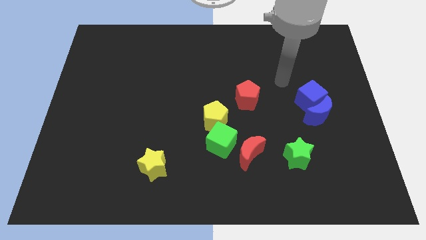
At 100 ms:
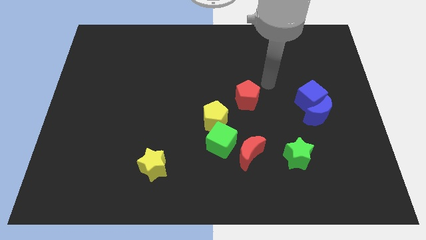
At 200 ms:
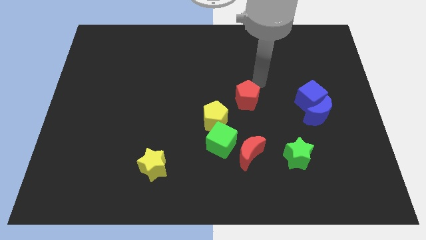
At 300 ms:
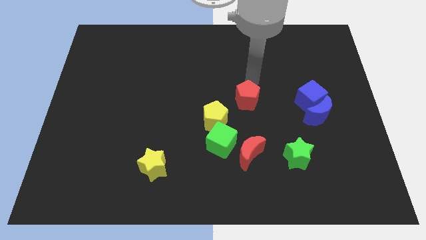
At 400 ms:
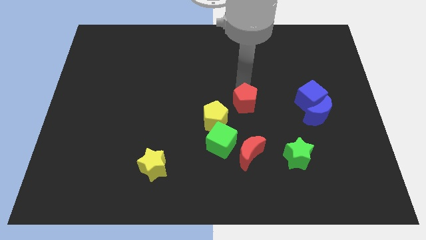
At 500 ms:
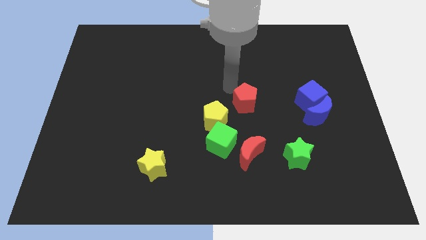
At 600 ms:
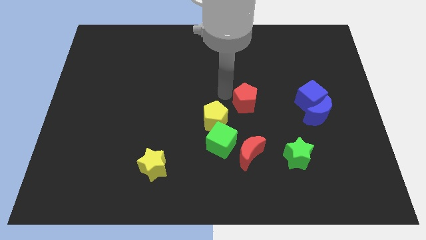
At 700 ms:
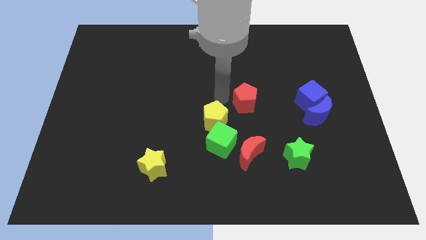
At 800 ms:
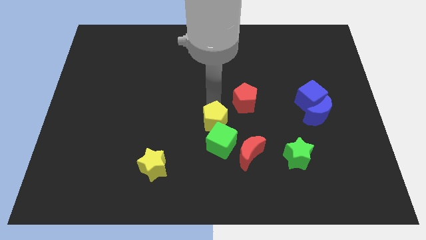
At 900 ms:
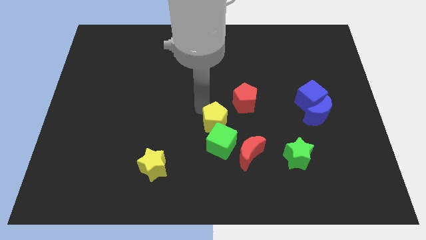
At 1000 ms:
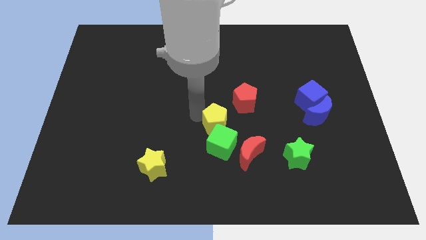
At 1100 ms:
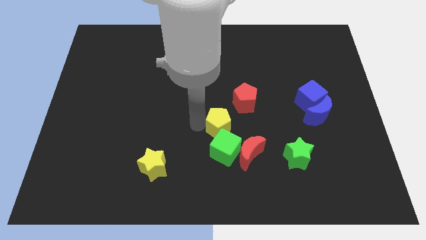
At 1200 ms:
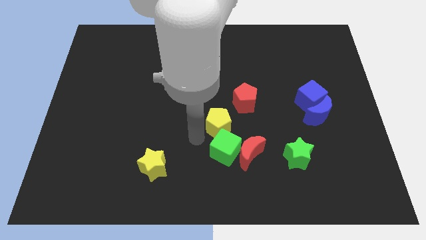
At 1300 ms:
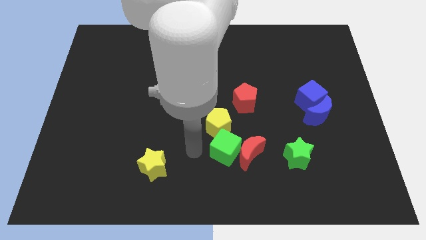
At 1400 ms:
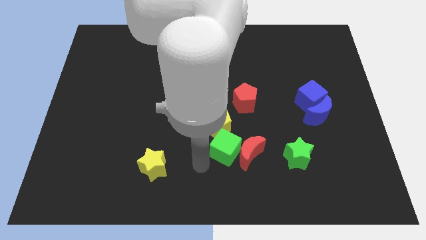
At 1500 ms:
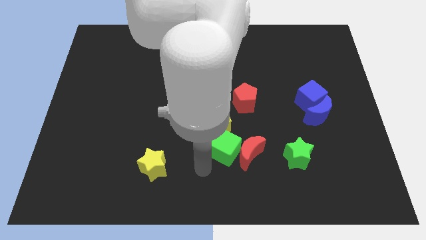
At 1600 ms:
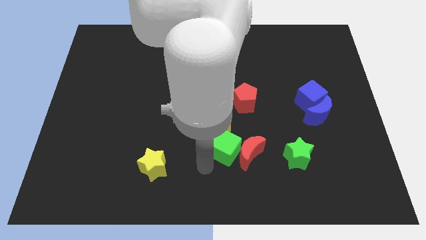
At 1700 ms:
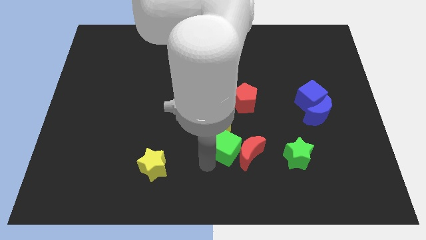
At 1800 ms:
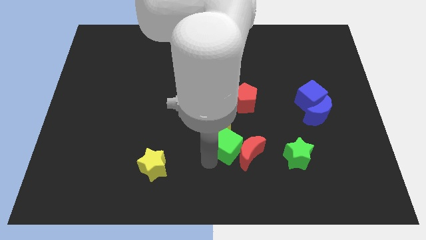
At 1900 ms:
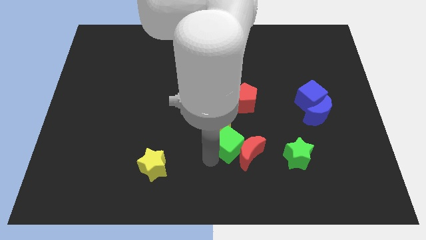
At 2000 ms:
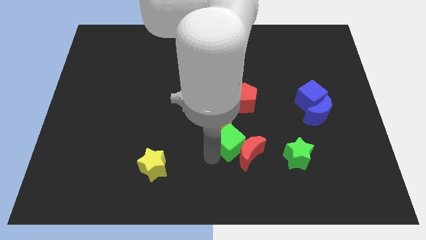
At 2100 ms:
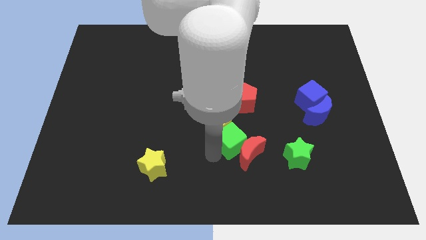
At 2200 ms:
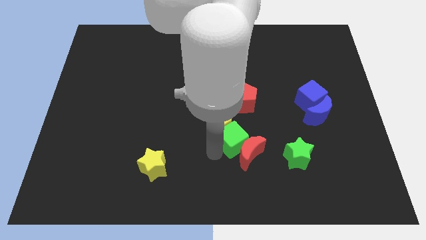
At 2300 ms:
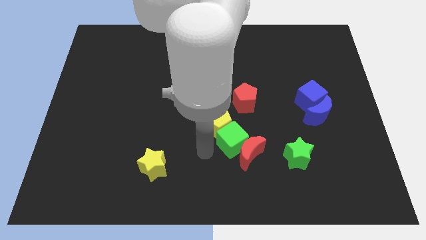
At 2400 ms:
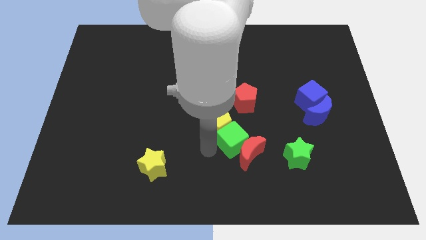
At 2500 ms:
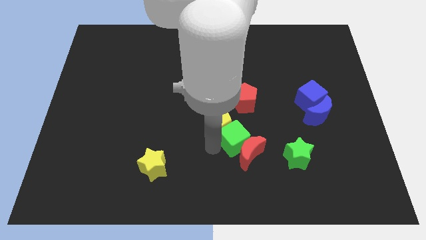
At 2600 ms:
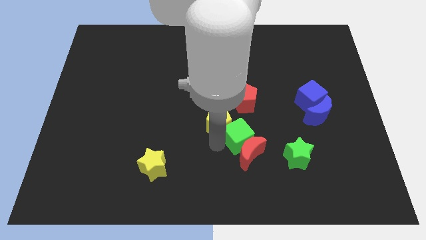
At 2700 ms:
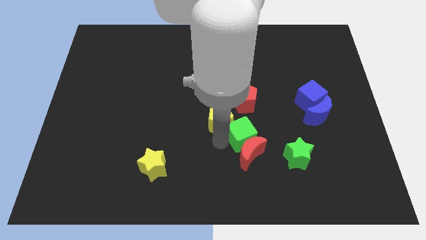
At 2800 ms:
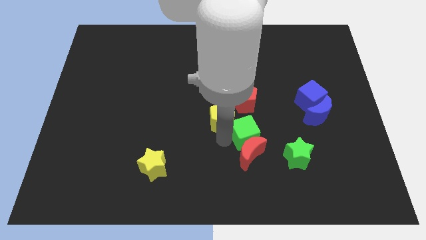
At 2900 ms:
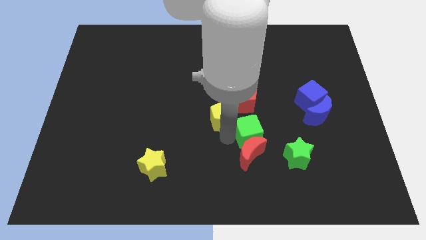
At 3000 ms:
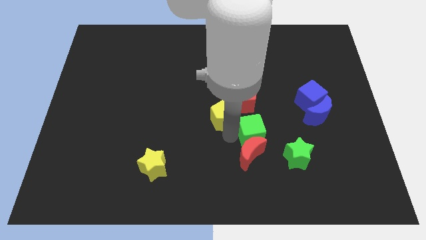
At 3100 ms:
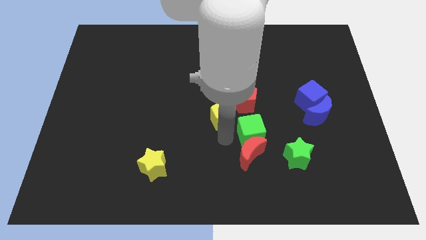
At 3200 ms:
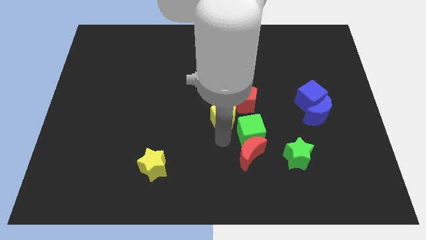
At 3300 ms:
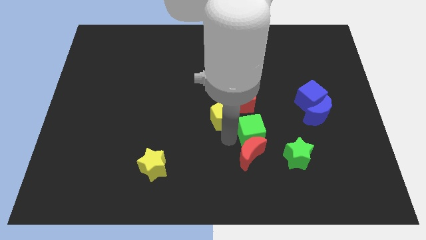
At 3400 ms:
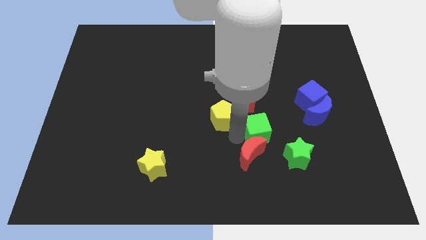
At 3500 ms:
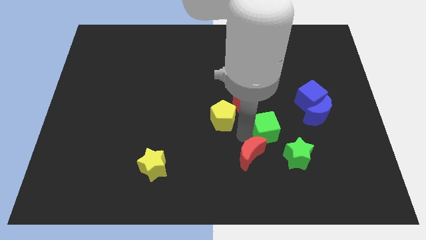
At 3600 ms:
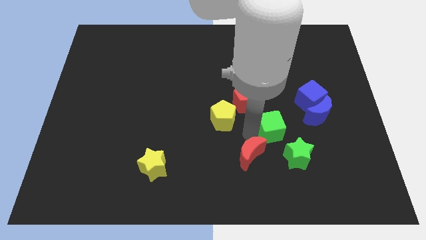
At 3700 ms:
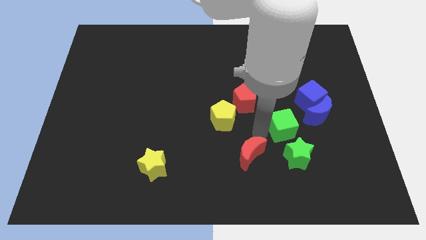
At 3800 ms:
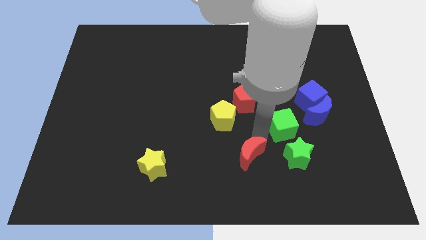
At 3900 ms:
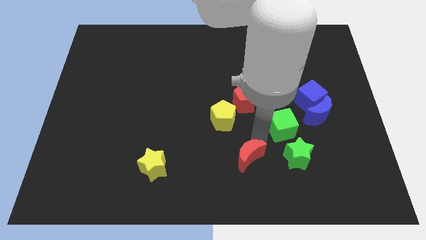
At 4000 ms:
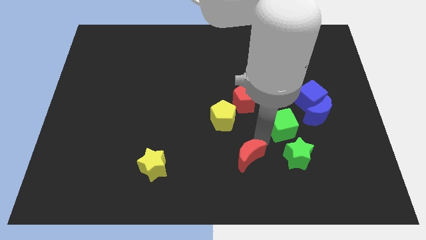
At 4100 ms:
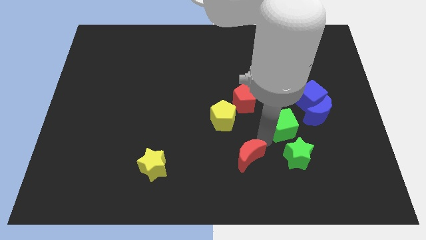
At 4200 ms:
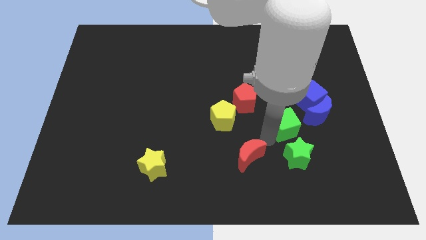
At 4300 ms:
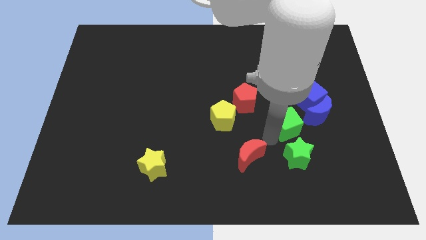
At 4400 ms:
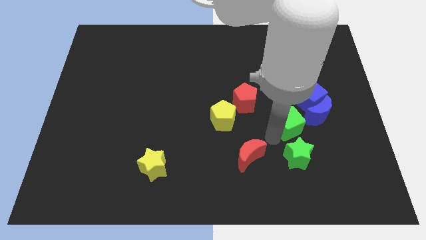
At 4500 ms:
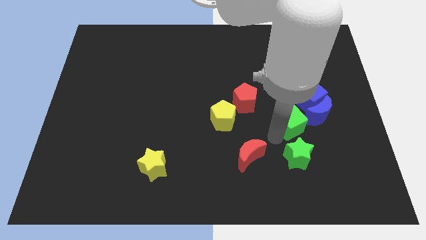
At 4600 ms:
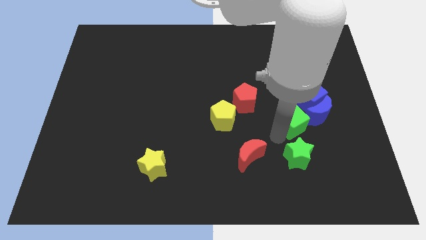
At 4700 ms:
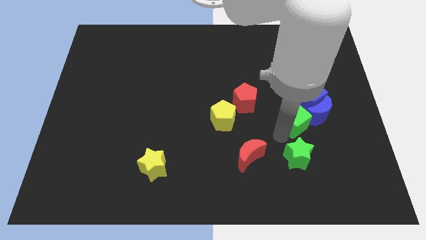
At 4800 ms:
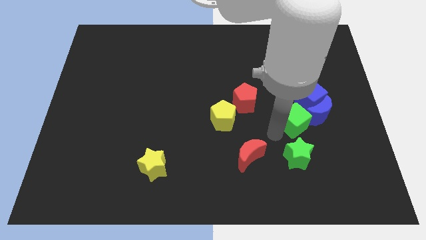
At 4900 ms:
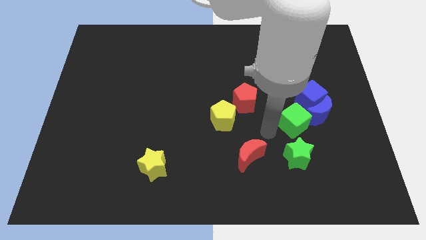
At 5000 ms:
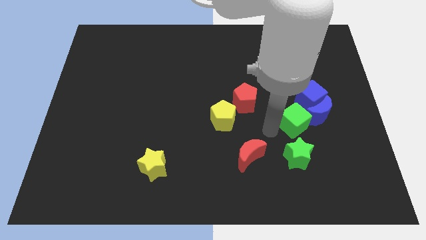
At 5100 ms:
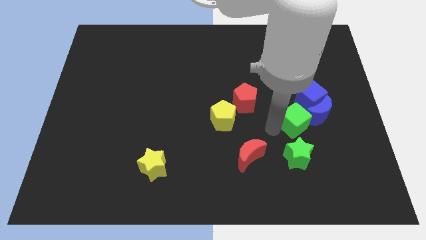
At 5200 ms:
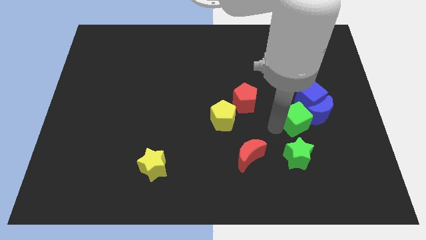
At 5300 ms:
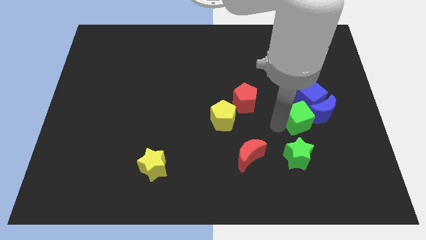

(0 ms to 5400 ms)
put the green cube towards the blue moon

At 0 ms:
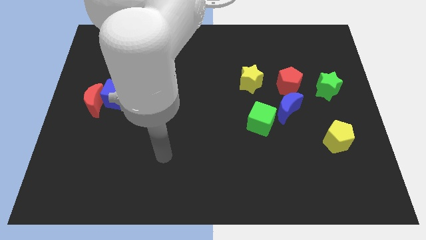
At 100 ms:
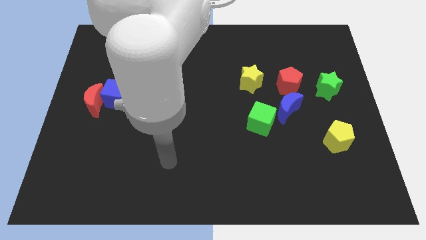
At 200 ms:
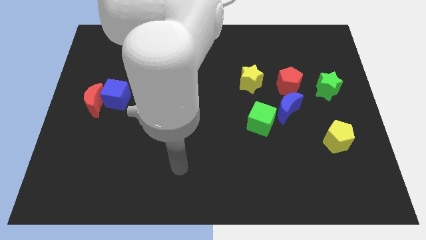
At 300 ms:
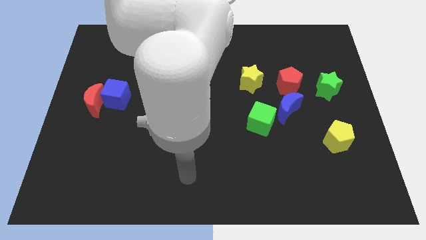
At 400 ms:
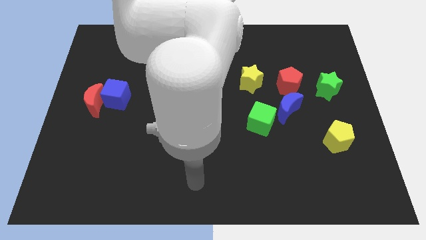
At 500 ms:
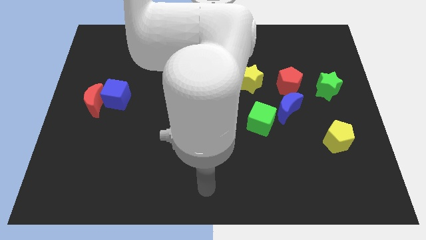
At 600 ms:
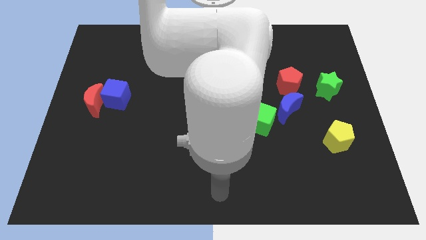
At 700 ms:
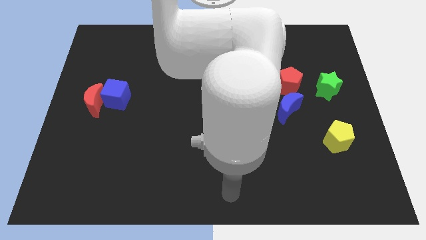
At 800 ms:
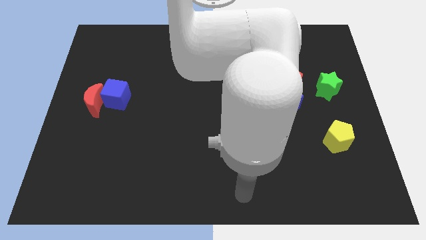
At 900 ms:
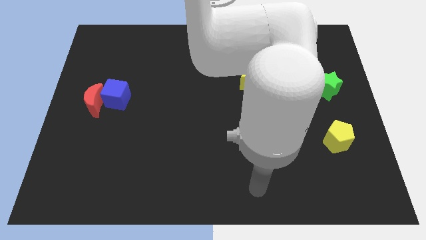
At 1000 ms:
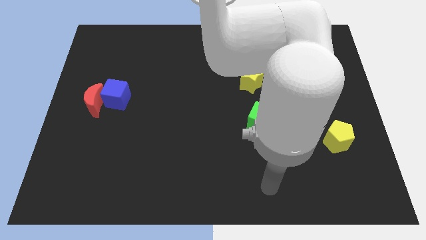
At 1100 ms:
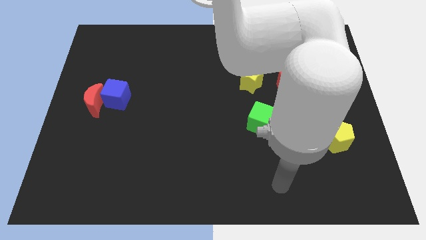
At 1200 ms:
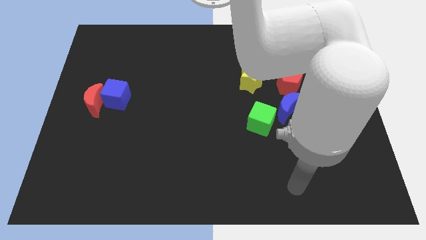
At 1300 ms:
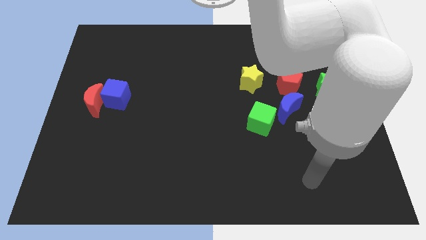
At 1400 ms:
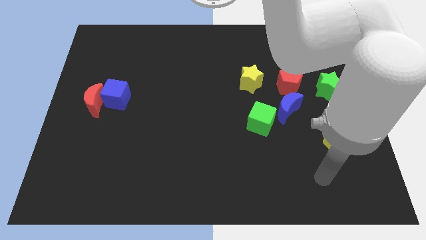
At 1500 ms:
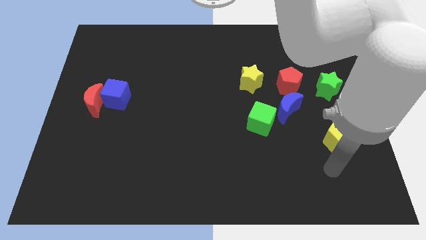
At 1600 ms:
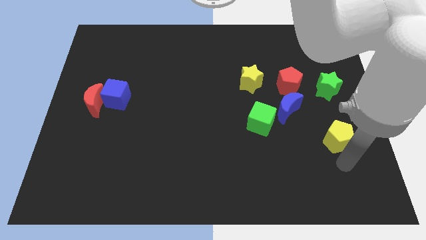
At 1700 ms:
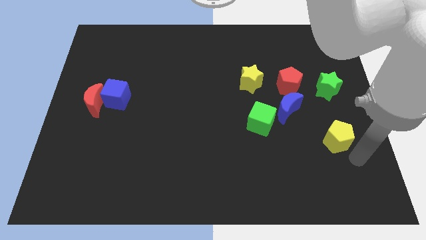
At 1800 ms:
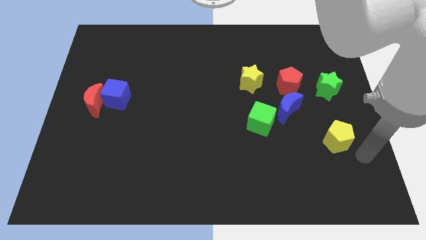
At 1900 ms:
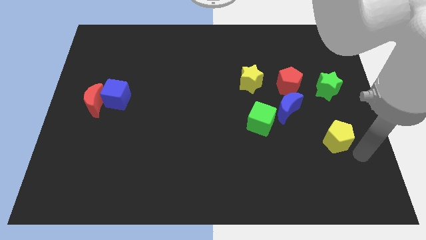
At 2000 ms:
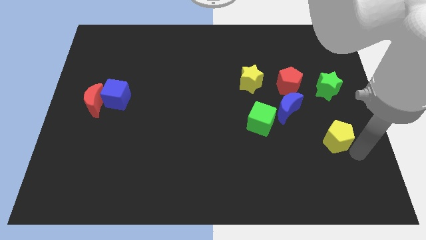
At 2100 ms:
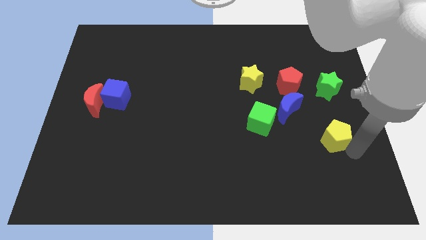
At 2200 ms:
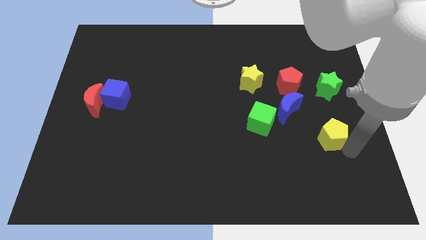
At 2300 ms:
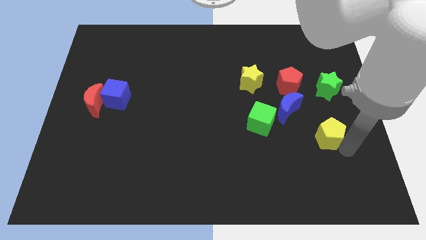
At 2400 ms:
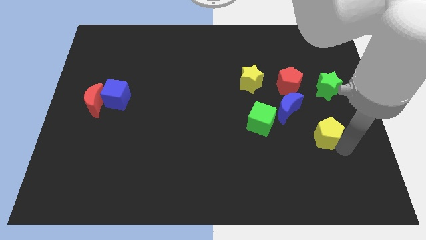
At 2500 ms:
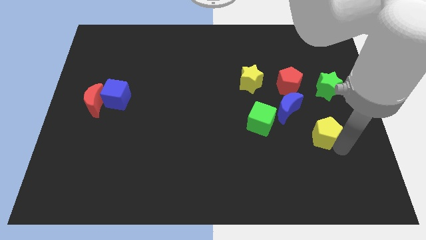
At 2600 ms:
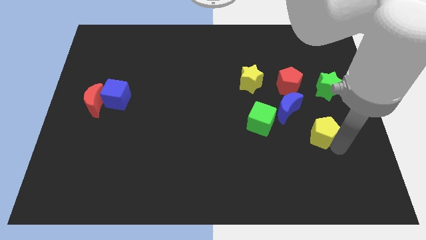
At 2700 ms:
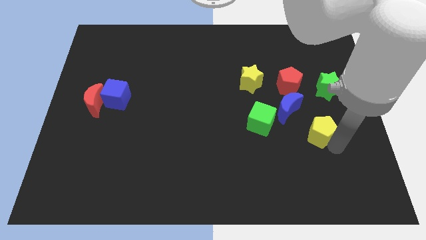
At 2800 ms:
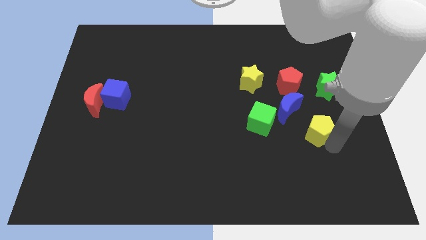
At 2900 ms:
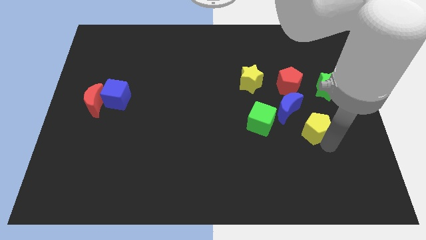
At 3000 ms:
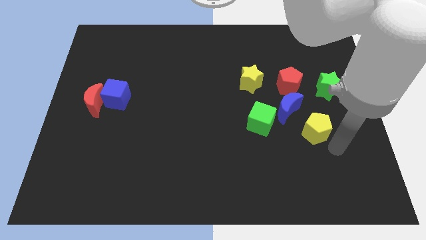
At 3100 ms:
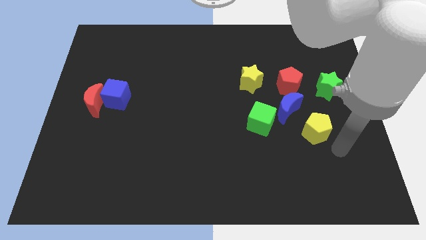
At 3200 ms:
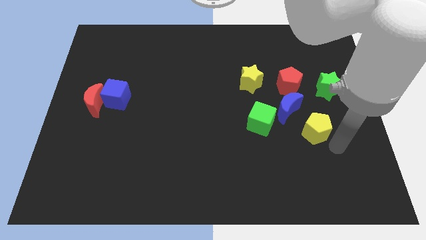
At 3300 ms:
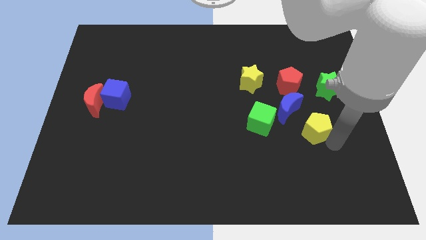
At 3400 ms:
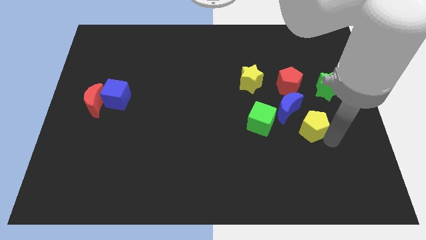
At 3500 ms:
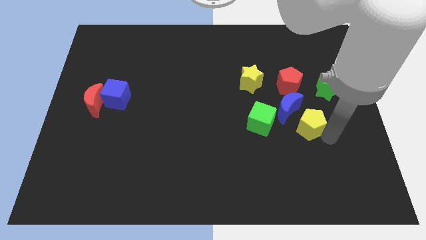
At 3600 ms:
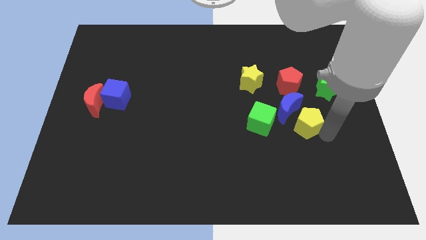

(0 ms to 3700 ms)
move the yellow pentagon towards the blue moon
